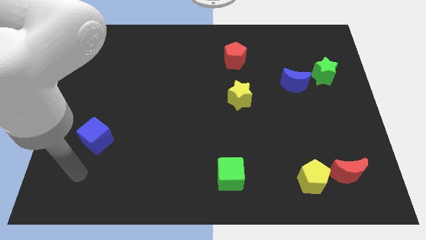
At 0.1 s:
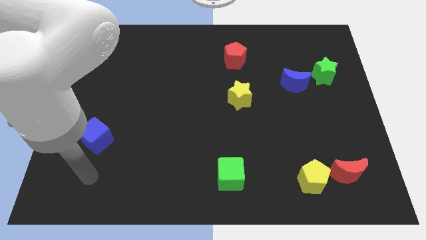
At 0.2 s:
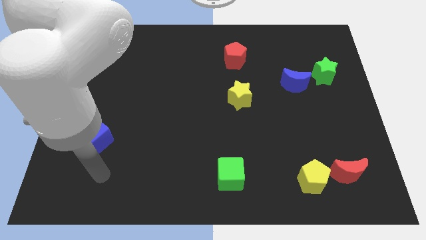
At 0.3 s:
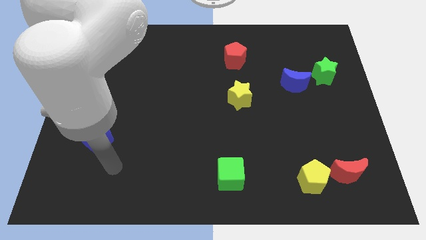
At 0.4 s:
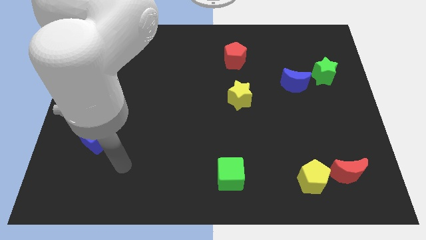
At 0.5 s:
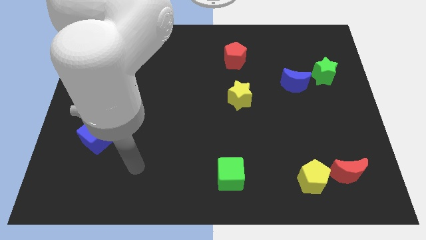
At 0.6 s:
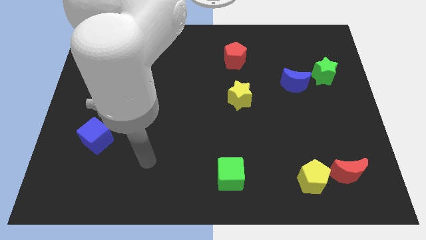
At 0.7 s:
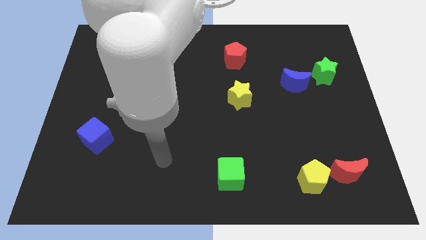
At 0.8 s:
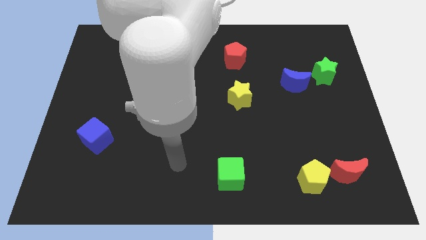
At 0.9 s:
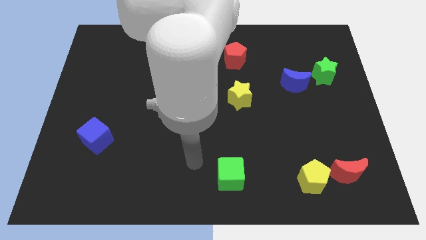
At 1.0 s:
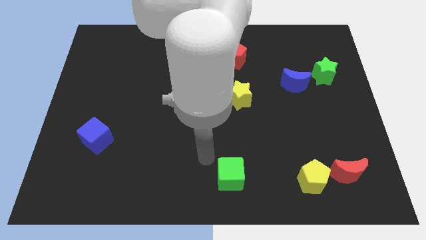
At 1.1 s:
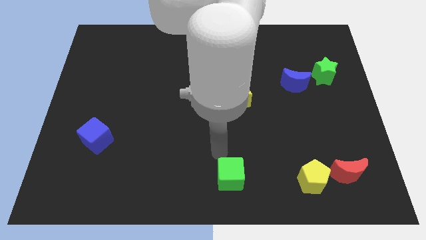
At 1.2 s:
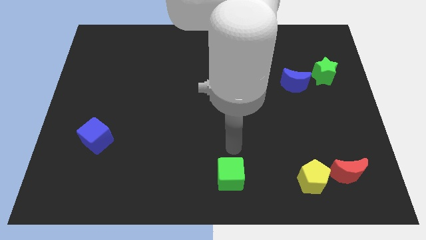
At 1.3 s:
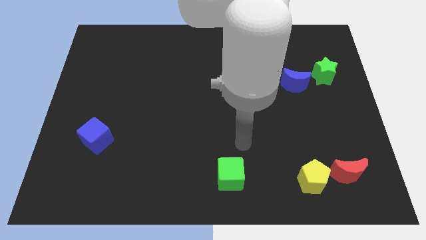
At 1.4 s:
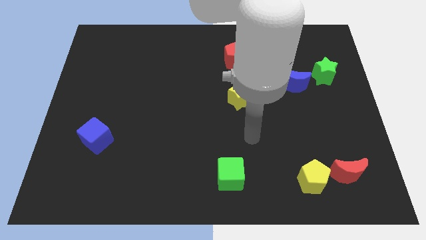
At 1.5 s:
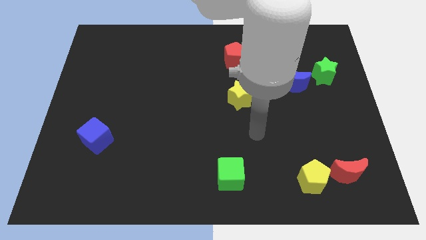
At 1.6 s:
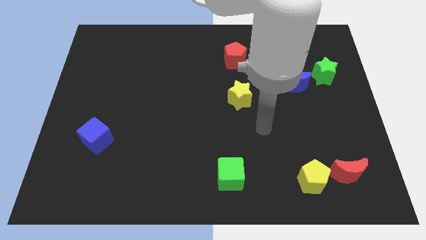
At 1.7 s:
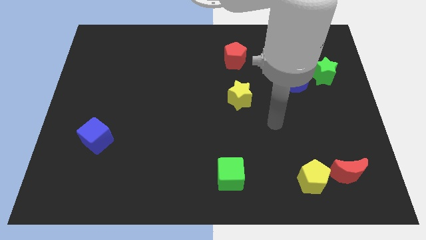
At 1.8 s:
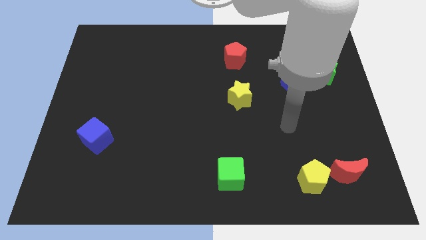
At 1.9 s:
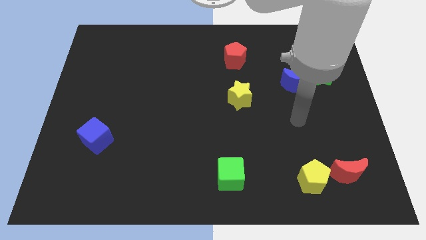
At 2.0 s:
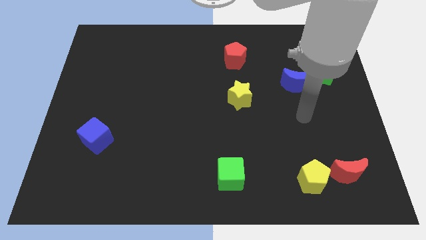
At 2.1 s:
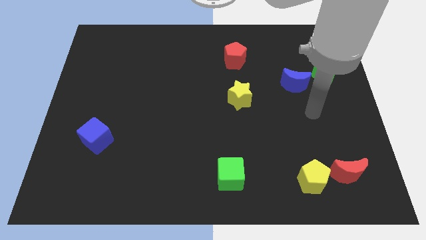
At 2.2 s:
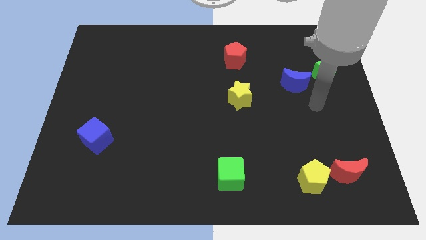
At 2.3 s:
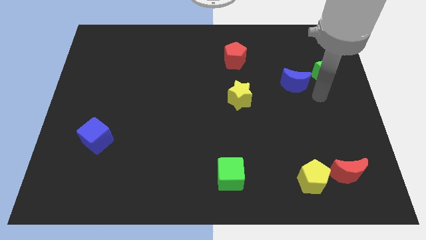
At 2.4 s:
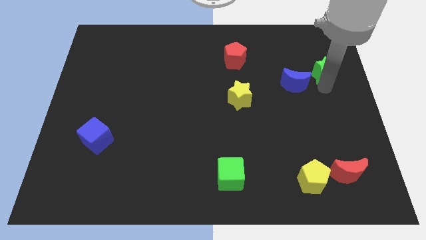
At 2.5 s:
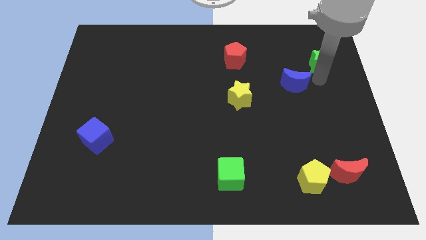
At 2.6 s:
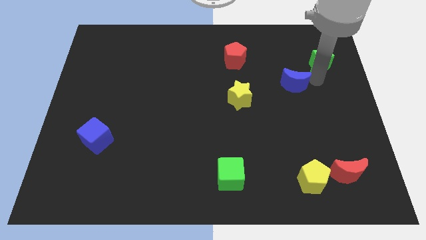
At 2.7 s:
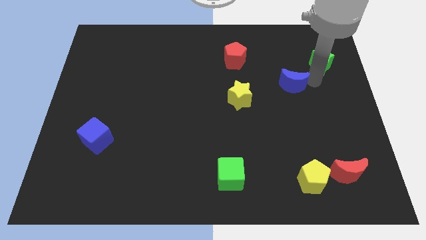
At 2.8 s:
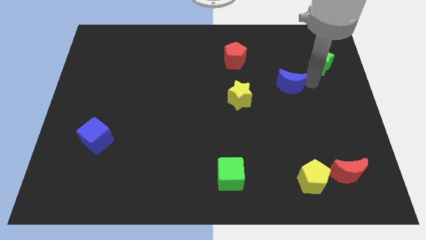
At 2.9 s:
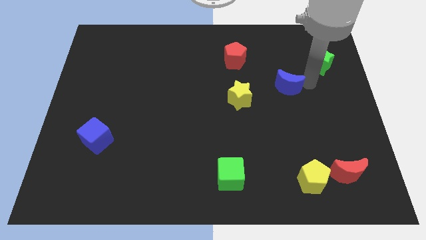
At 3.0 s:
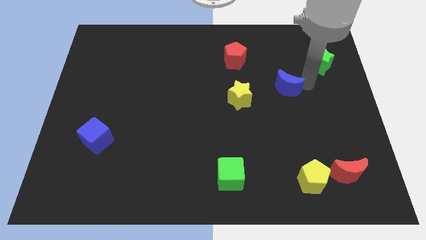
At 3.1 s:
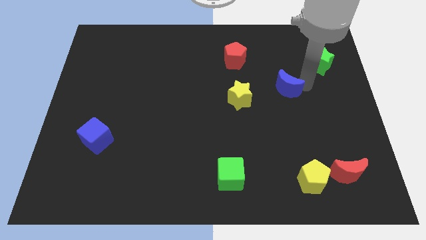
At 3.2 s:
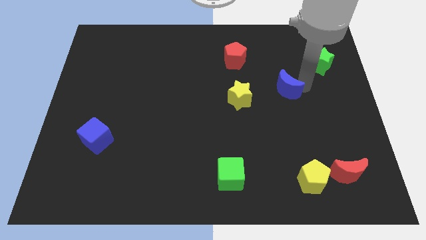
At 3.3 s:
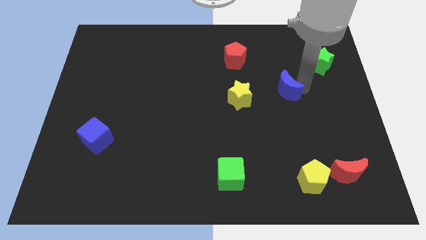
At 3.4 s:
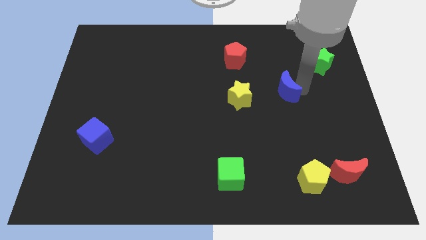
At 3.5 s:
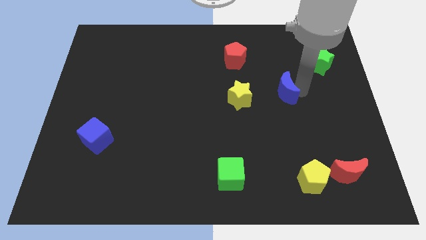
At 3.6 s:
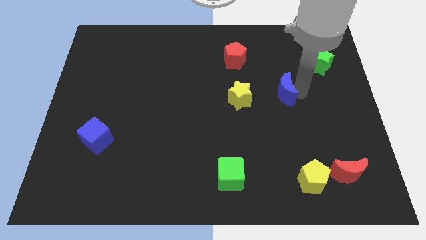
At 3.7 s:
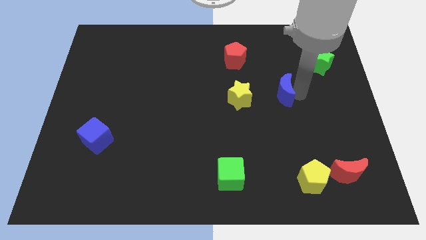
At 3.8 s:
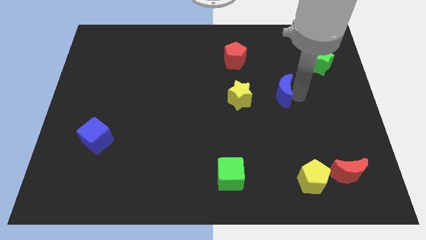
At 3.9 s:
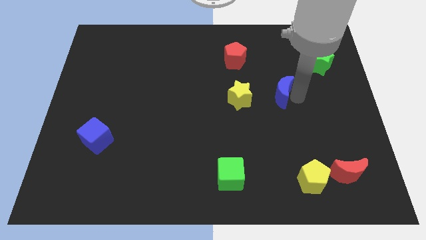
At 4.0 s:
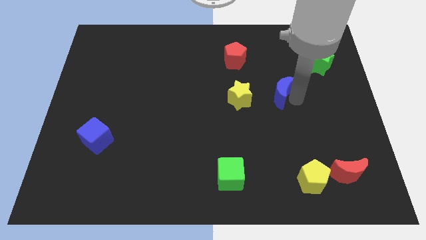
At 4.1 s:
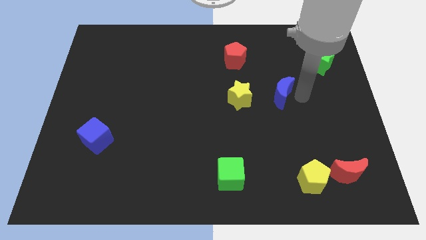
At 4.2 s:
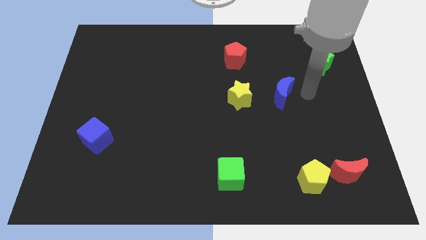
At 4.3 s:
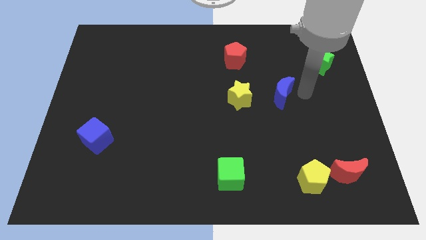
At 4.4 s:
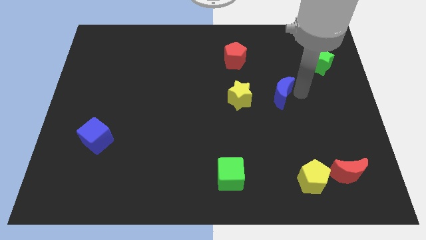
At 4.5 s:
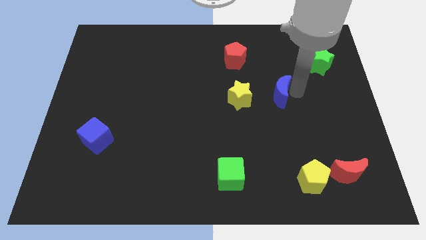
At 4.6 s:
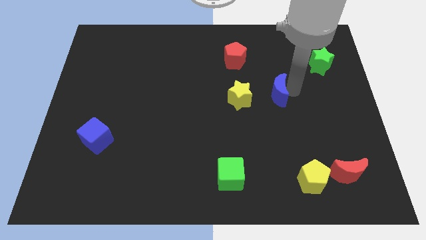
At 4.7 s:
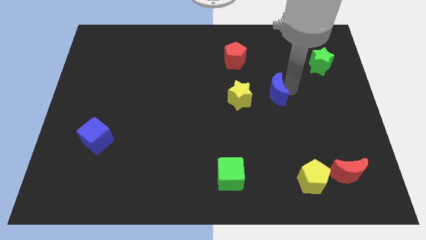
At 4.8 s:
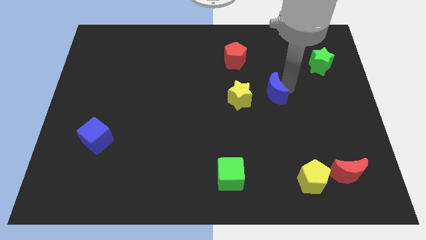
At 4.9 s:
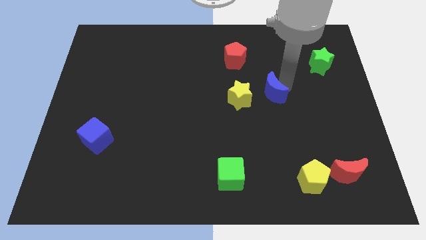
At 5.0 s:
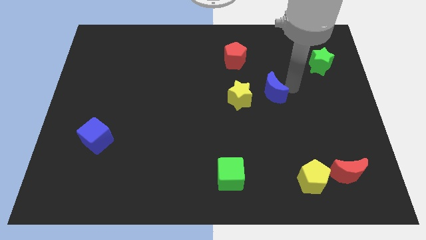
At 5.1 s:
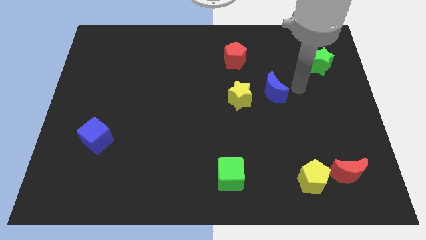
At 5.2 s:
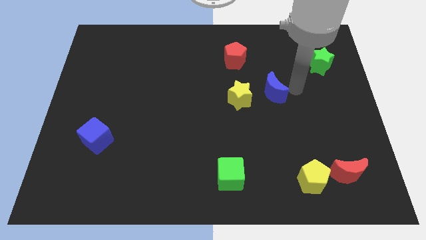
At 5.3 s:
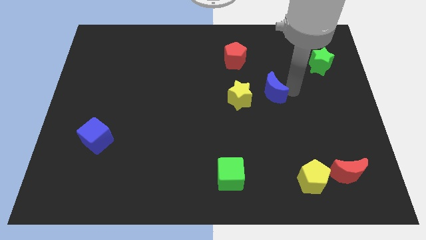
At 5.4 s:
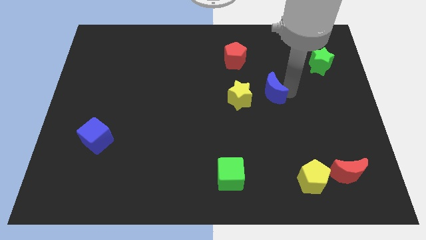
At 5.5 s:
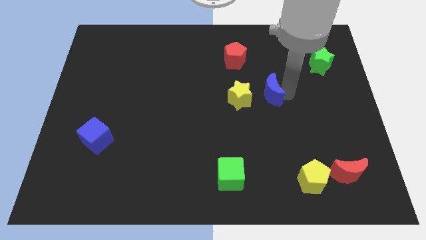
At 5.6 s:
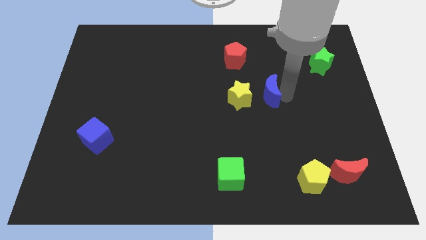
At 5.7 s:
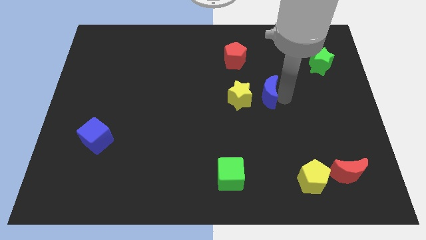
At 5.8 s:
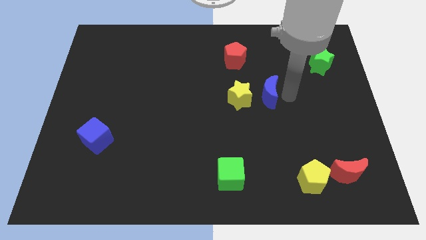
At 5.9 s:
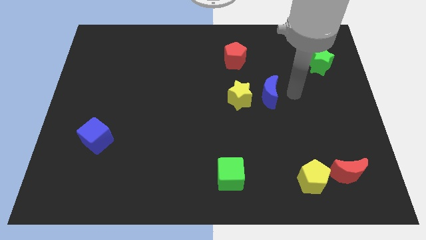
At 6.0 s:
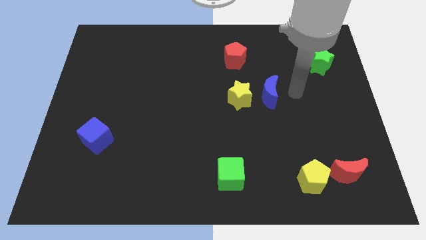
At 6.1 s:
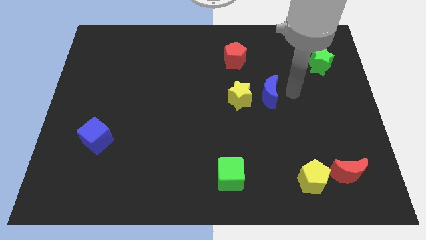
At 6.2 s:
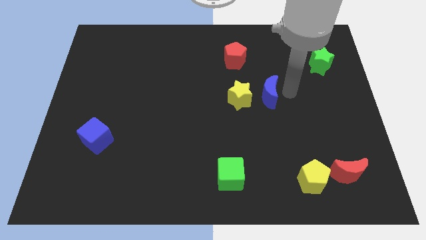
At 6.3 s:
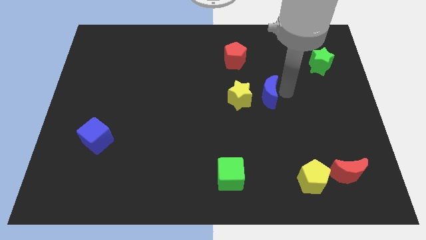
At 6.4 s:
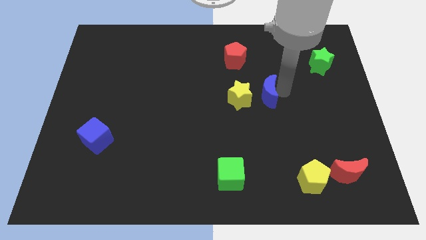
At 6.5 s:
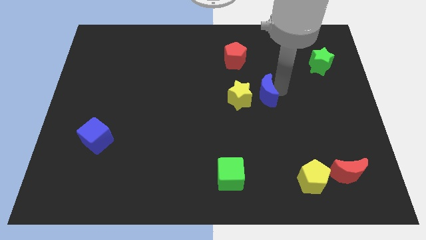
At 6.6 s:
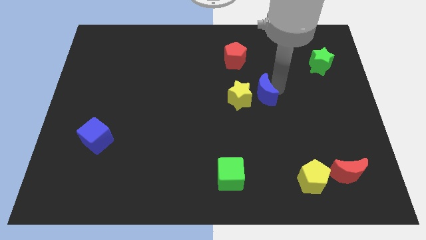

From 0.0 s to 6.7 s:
push the blue moon towards the yellow star

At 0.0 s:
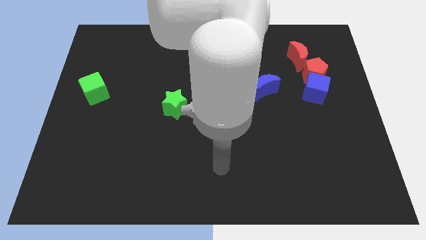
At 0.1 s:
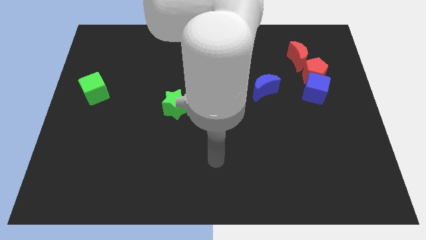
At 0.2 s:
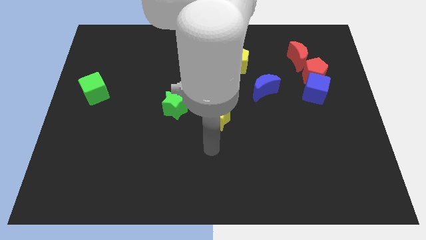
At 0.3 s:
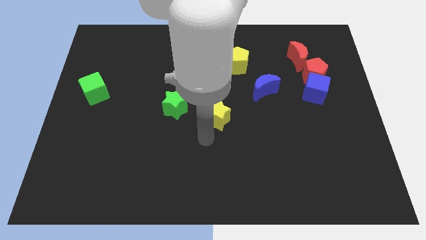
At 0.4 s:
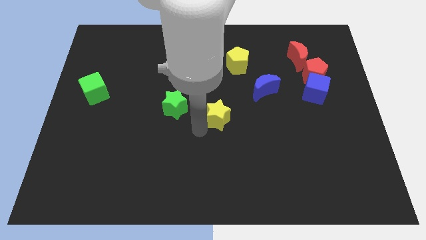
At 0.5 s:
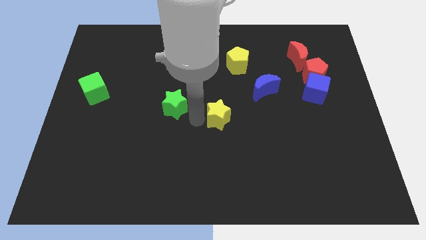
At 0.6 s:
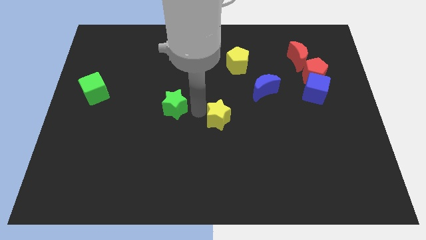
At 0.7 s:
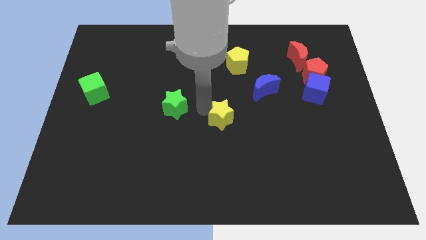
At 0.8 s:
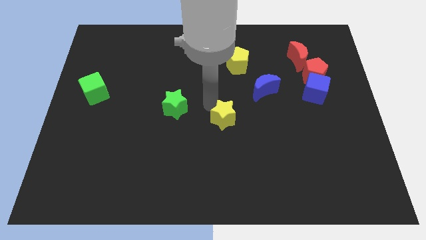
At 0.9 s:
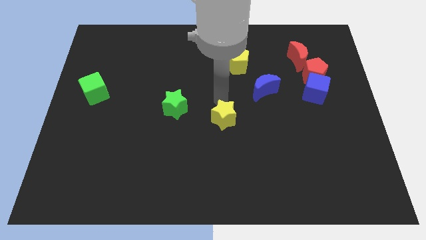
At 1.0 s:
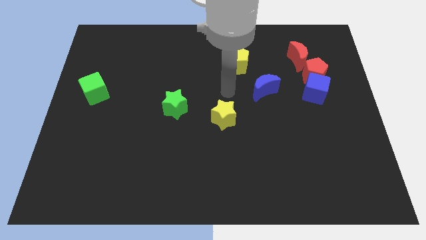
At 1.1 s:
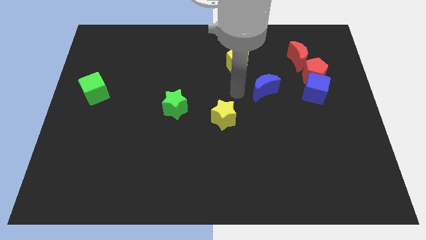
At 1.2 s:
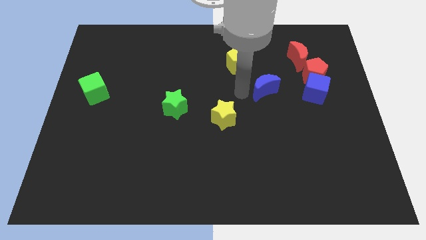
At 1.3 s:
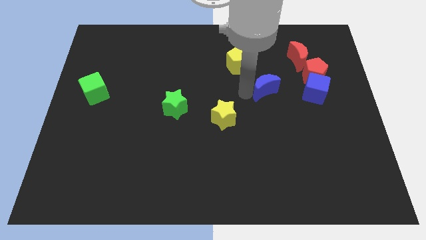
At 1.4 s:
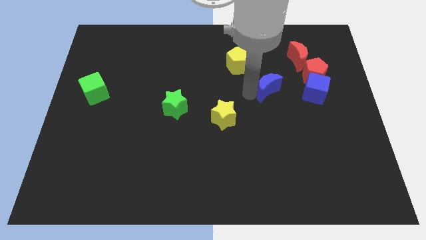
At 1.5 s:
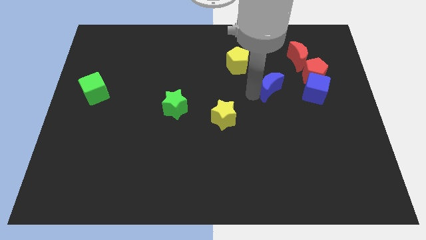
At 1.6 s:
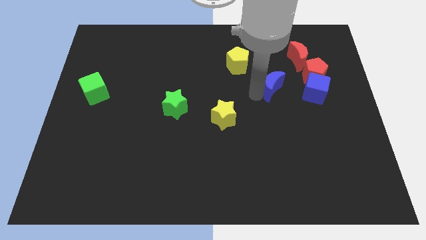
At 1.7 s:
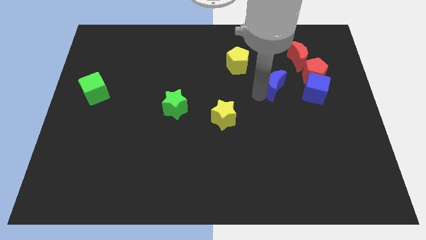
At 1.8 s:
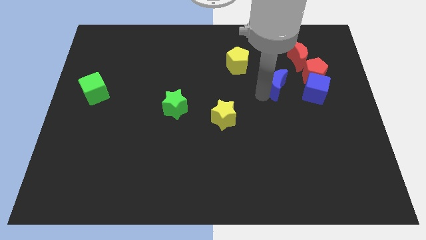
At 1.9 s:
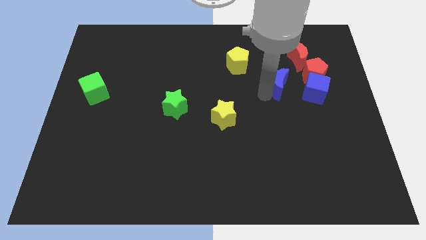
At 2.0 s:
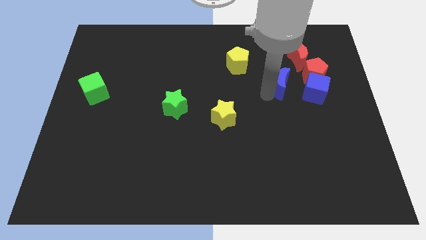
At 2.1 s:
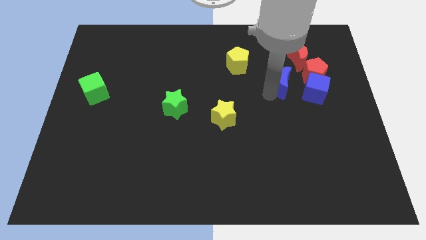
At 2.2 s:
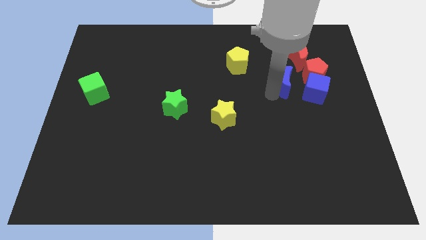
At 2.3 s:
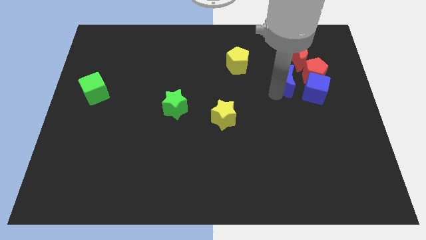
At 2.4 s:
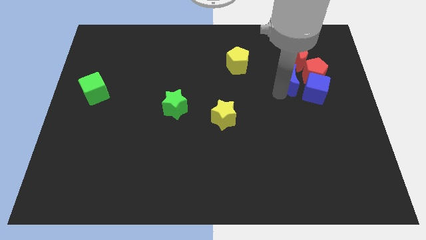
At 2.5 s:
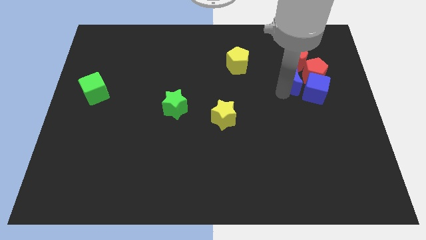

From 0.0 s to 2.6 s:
slide the blue moon next to the red pentagon
